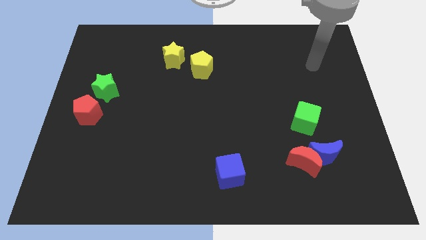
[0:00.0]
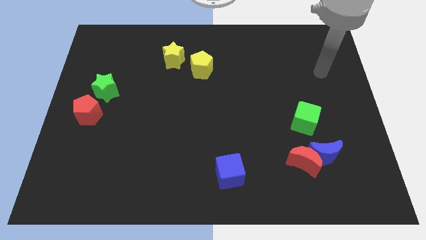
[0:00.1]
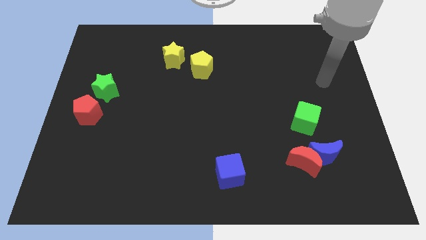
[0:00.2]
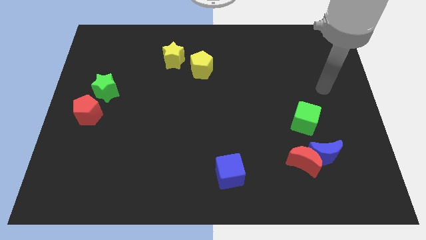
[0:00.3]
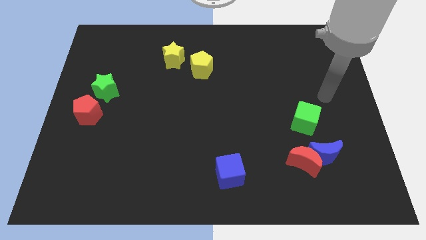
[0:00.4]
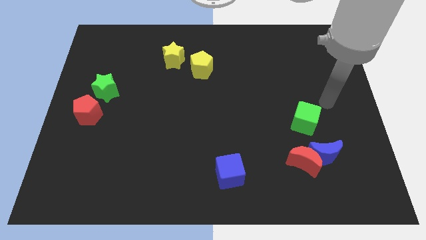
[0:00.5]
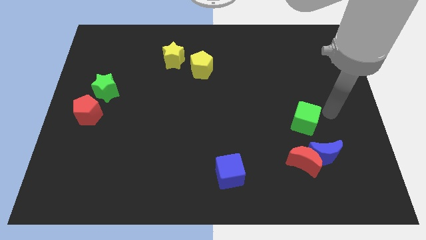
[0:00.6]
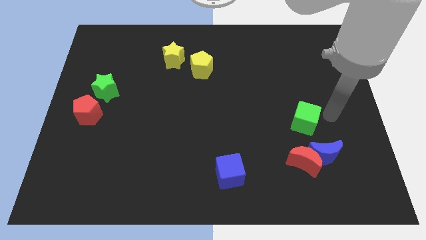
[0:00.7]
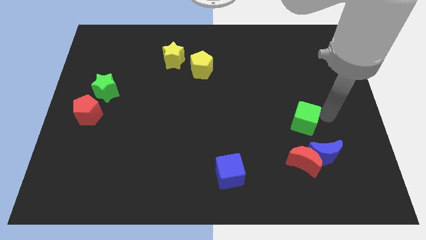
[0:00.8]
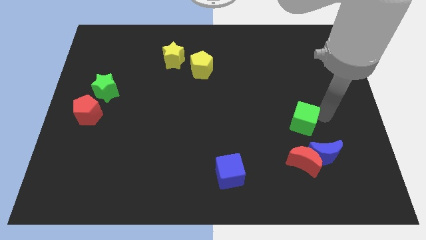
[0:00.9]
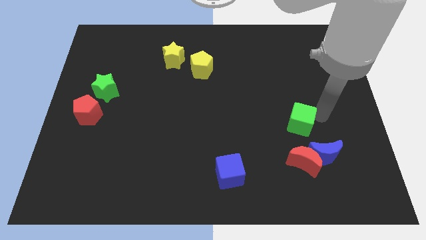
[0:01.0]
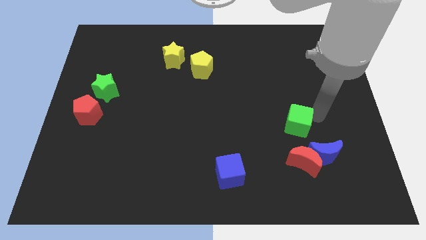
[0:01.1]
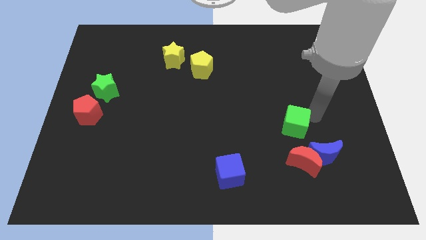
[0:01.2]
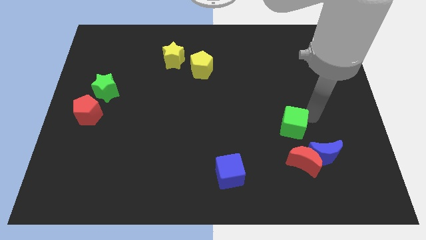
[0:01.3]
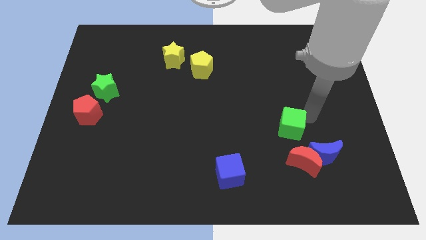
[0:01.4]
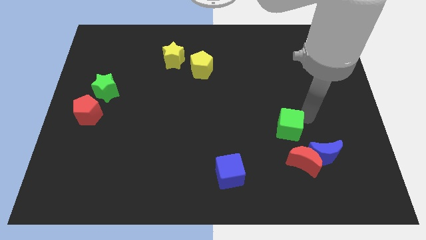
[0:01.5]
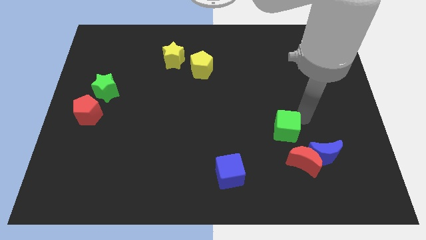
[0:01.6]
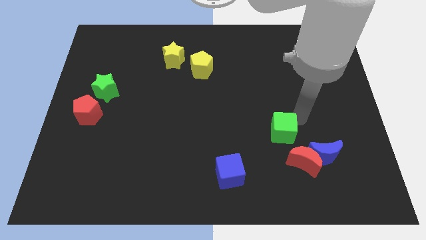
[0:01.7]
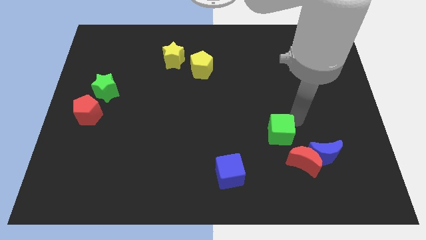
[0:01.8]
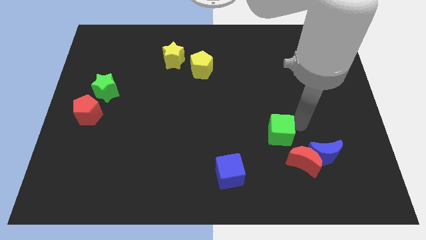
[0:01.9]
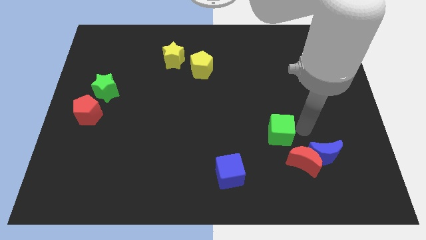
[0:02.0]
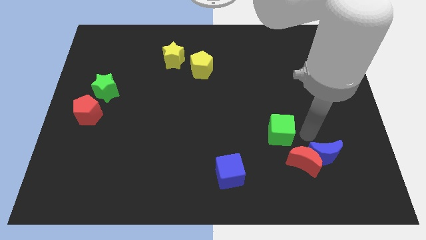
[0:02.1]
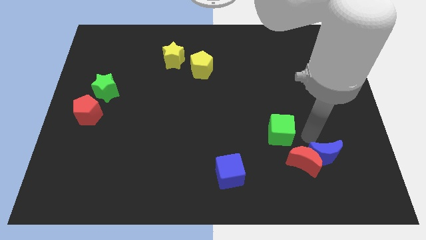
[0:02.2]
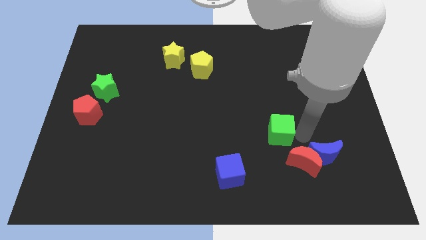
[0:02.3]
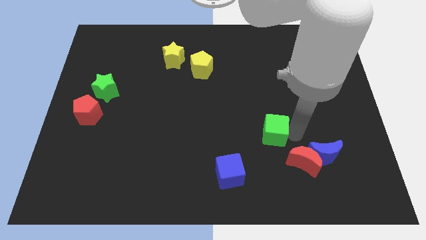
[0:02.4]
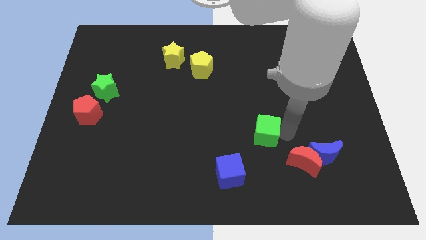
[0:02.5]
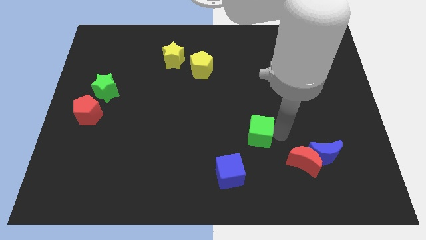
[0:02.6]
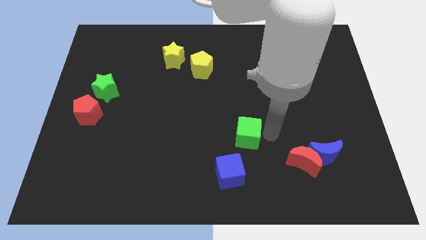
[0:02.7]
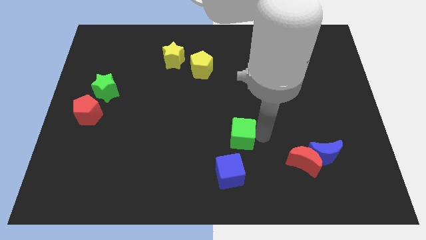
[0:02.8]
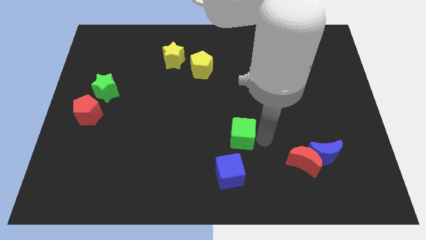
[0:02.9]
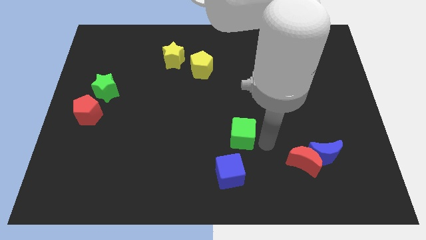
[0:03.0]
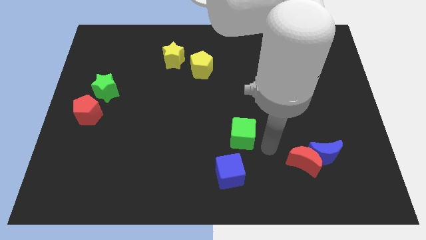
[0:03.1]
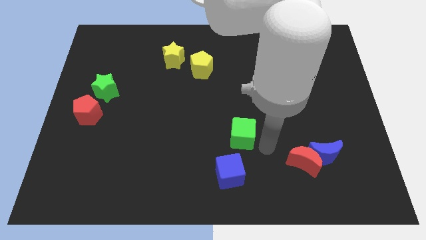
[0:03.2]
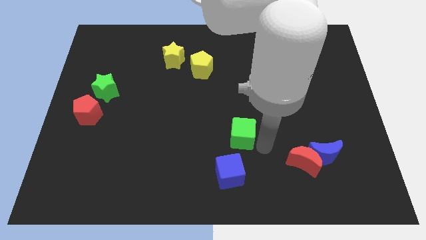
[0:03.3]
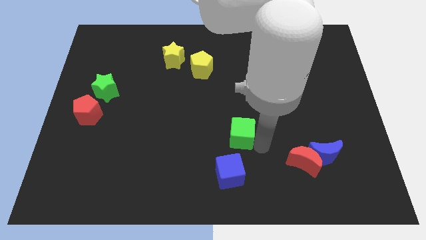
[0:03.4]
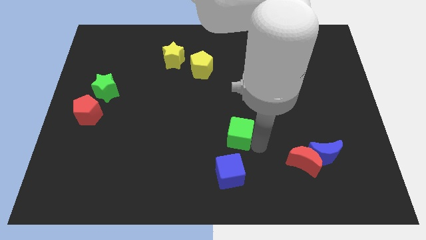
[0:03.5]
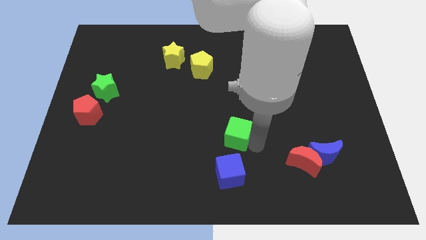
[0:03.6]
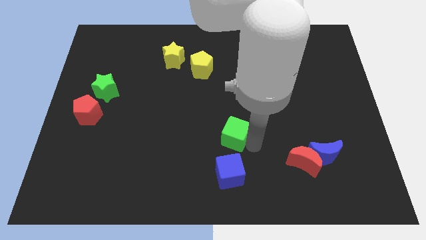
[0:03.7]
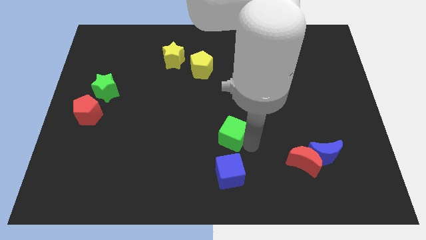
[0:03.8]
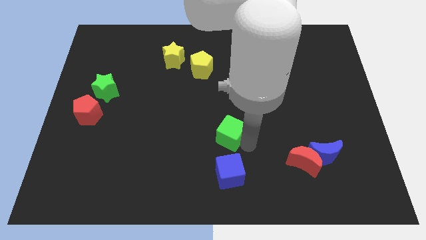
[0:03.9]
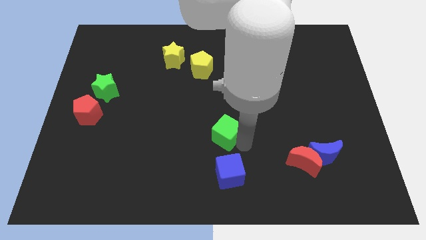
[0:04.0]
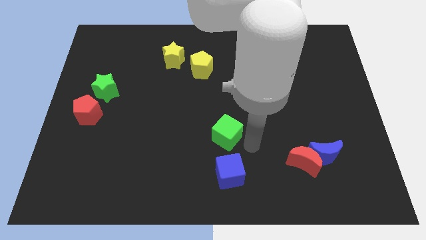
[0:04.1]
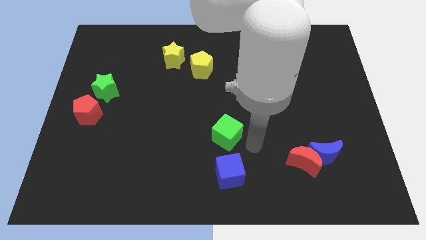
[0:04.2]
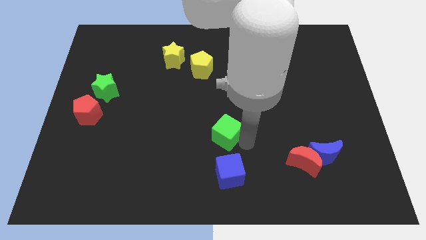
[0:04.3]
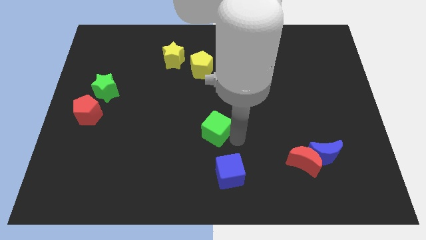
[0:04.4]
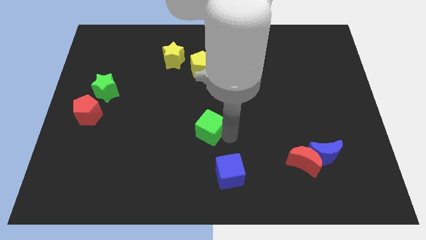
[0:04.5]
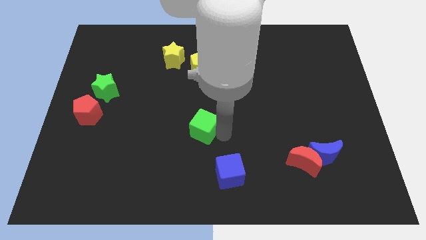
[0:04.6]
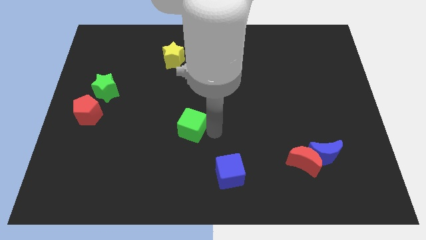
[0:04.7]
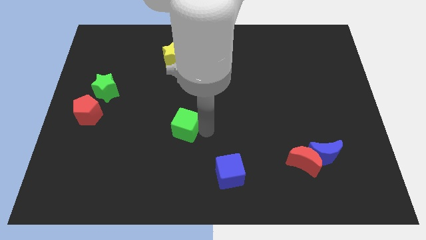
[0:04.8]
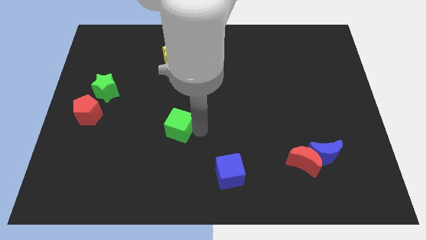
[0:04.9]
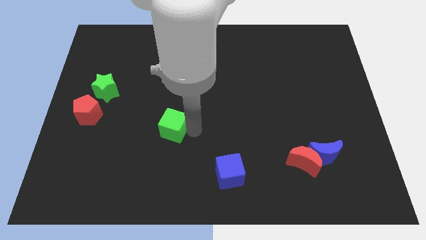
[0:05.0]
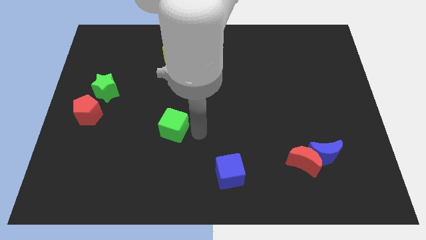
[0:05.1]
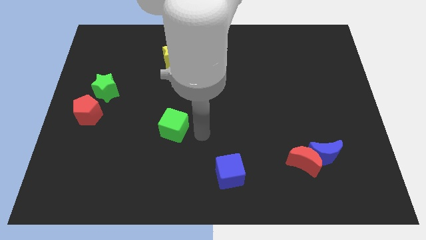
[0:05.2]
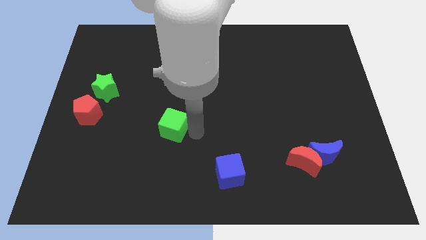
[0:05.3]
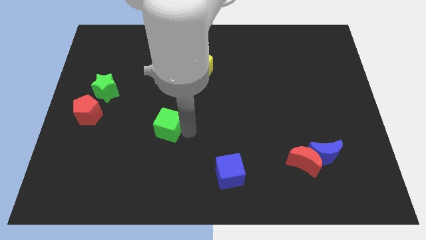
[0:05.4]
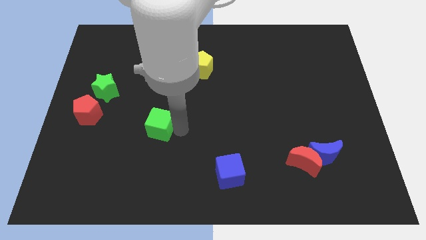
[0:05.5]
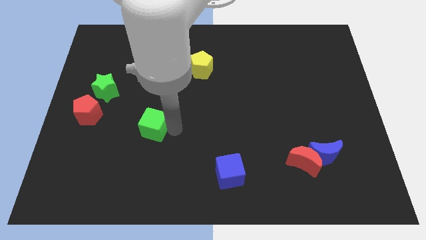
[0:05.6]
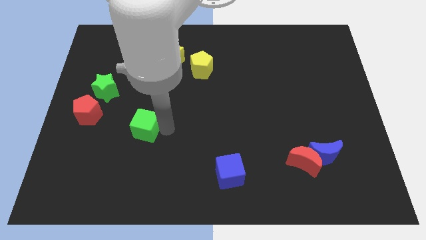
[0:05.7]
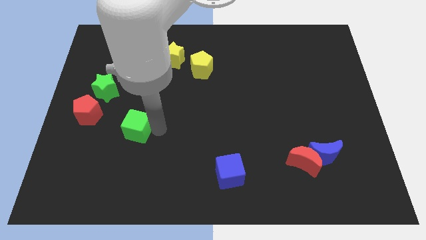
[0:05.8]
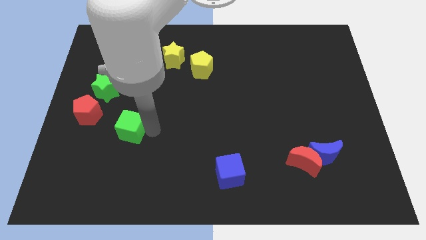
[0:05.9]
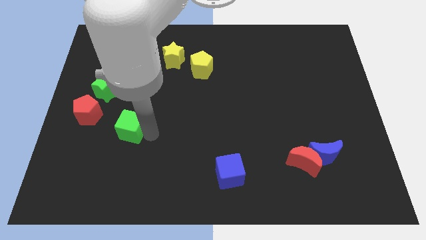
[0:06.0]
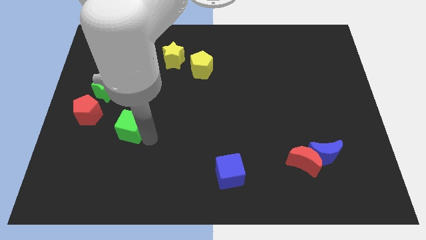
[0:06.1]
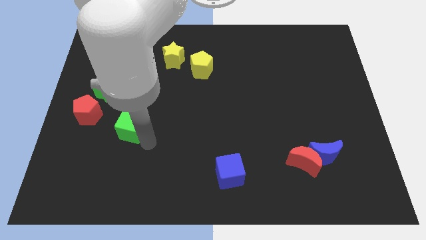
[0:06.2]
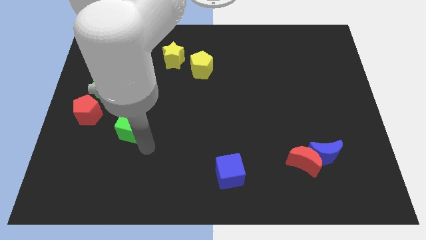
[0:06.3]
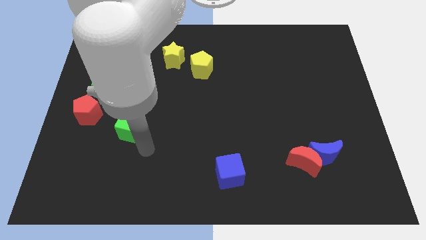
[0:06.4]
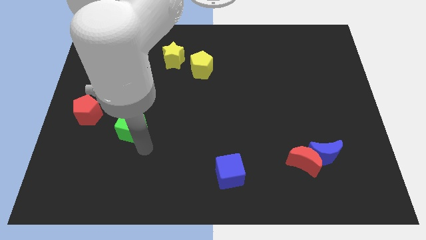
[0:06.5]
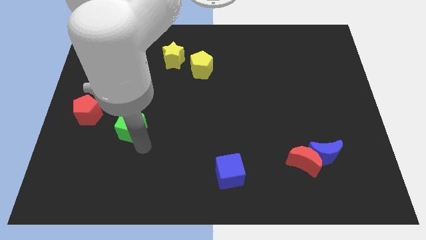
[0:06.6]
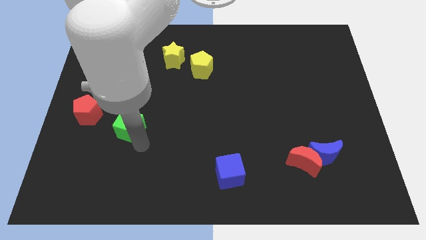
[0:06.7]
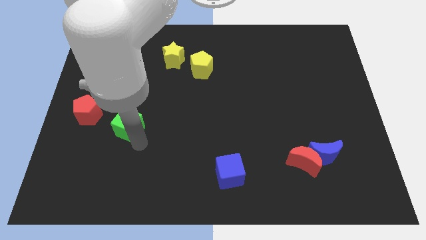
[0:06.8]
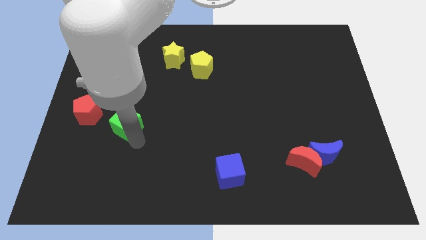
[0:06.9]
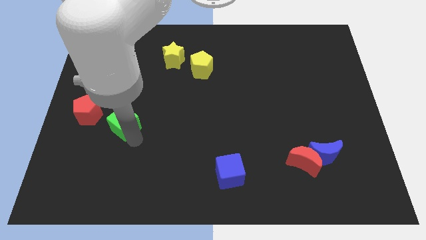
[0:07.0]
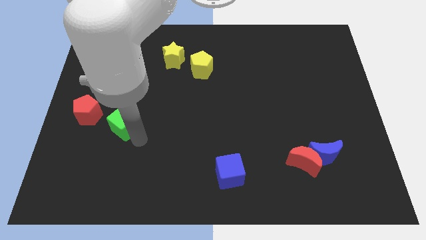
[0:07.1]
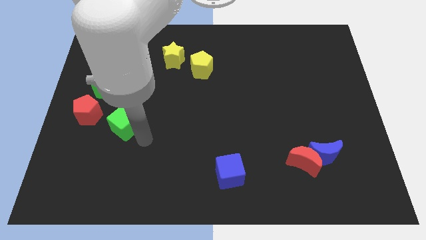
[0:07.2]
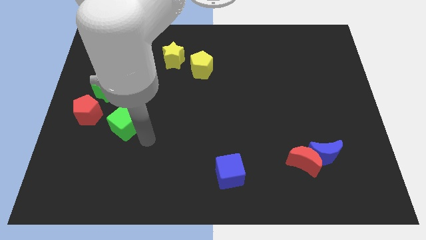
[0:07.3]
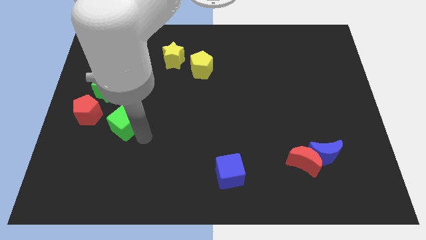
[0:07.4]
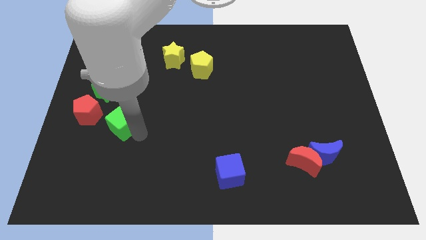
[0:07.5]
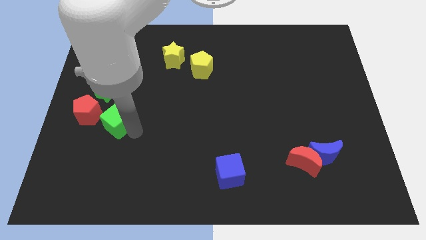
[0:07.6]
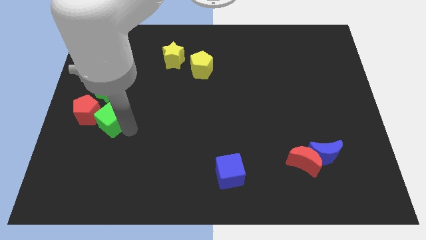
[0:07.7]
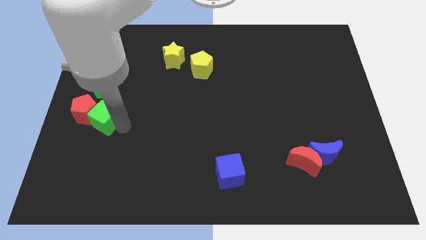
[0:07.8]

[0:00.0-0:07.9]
put the green cube next to the red pentagon
